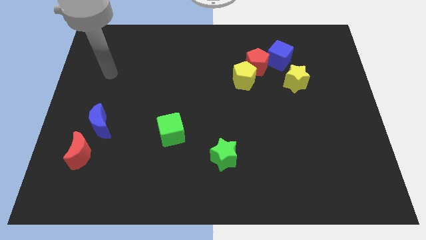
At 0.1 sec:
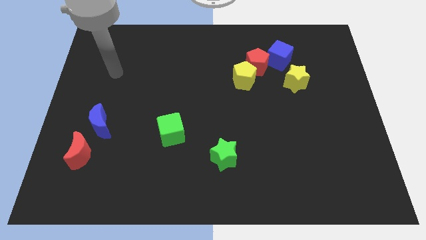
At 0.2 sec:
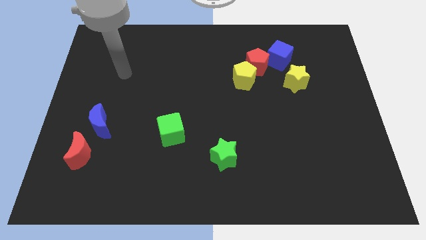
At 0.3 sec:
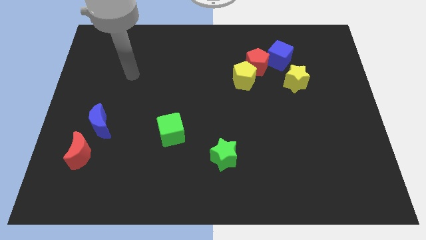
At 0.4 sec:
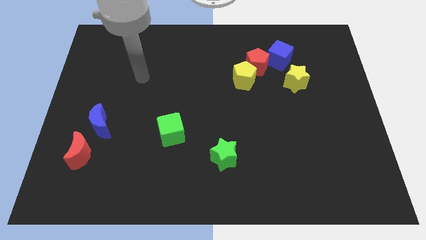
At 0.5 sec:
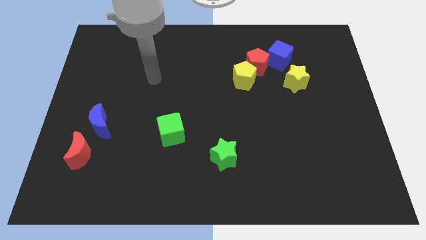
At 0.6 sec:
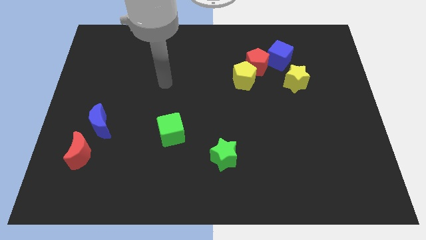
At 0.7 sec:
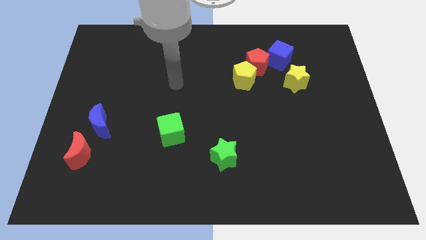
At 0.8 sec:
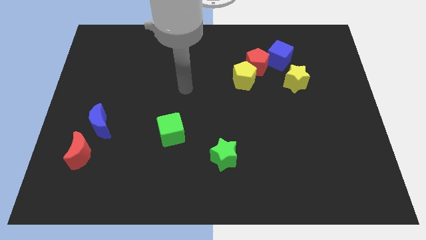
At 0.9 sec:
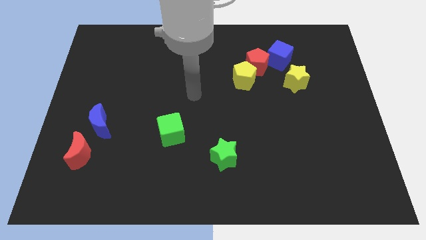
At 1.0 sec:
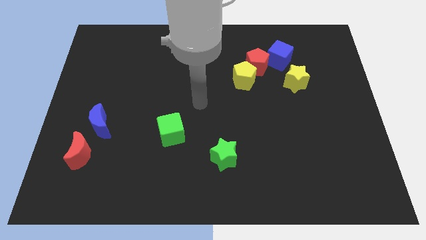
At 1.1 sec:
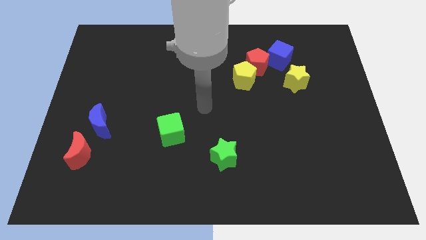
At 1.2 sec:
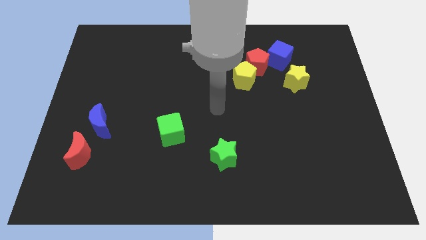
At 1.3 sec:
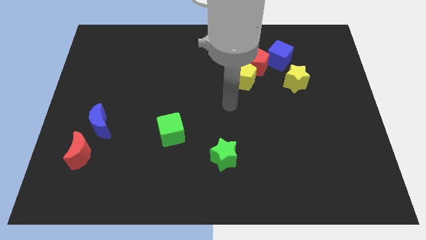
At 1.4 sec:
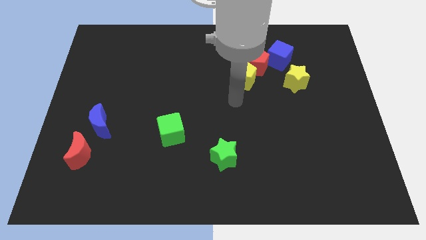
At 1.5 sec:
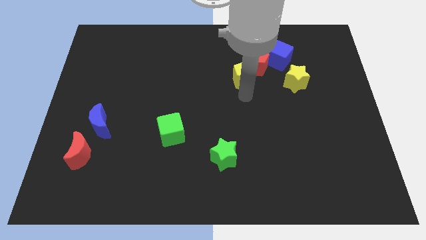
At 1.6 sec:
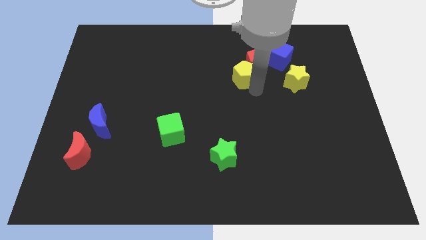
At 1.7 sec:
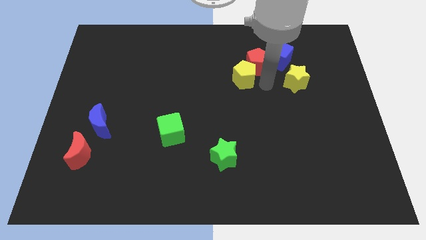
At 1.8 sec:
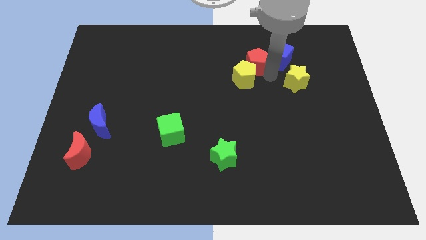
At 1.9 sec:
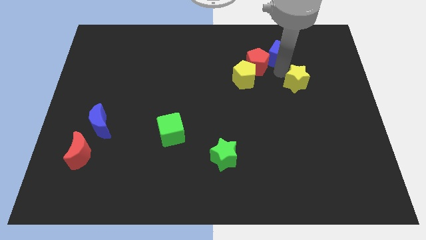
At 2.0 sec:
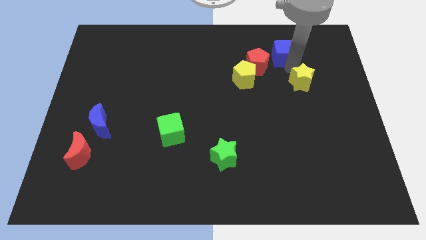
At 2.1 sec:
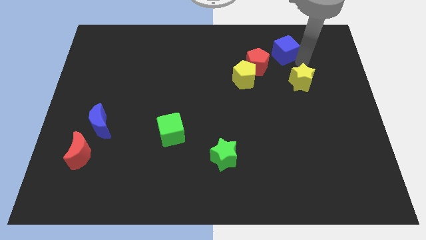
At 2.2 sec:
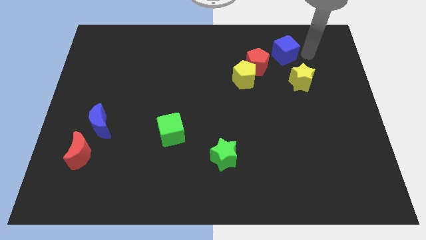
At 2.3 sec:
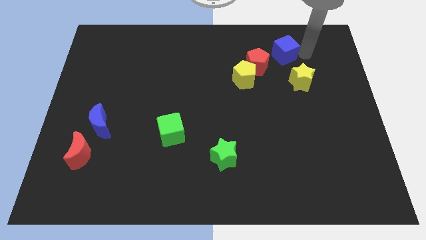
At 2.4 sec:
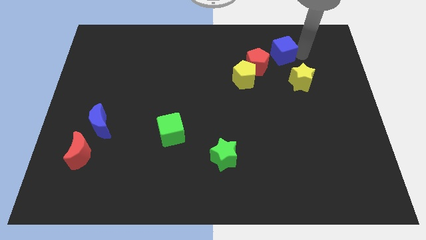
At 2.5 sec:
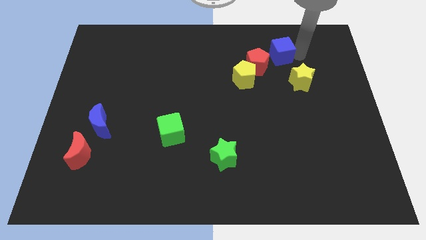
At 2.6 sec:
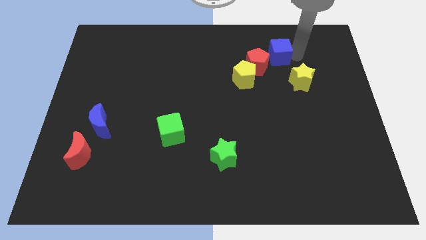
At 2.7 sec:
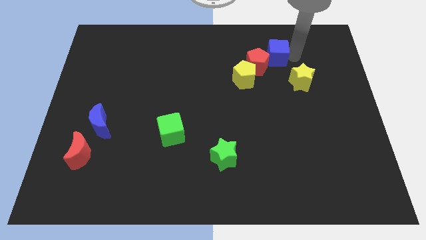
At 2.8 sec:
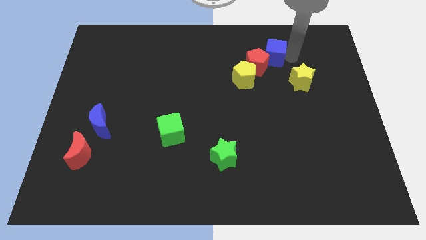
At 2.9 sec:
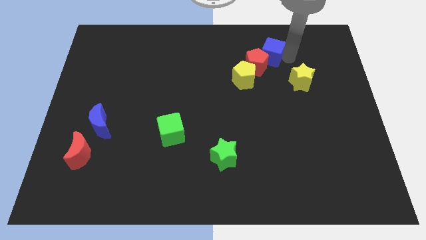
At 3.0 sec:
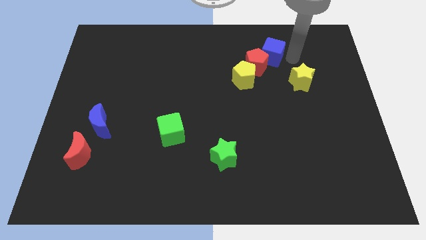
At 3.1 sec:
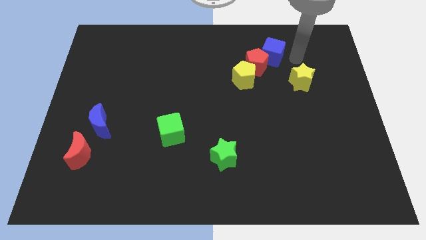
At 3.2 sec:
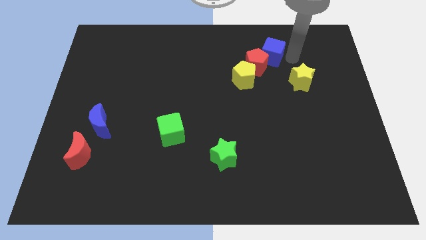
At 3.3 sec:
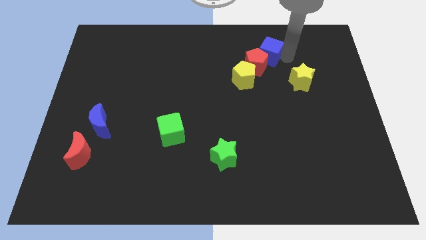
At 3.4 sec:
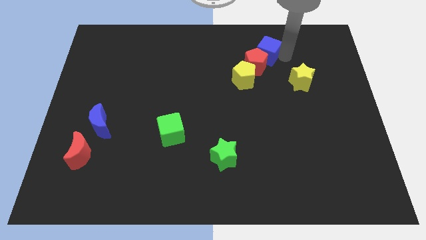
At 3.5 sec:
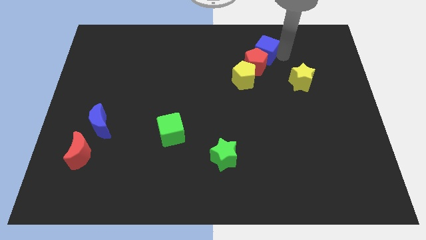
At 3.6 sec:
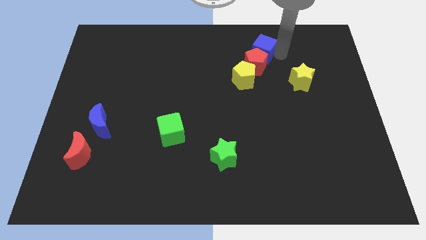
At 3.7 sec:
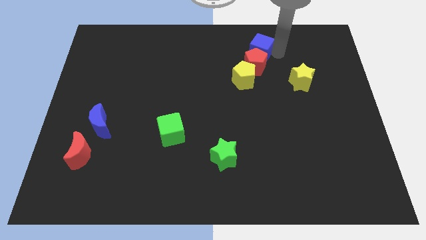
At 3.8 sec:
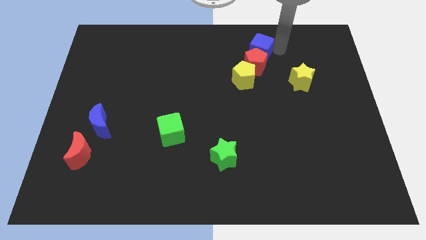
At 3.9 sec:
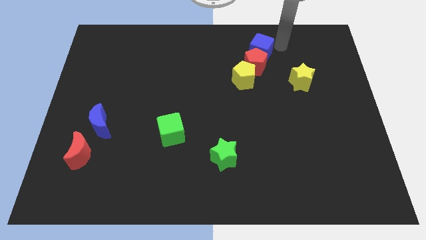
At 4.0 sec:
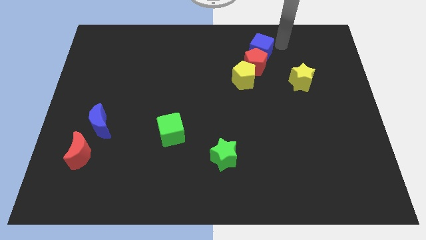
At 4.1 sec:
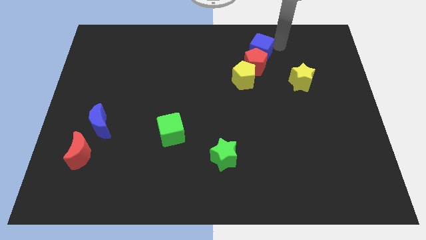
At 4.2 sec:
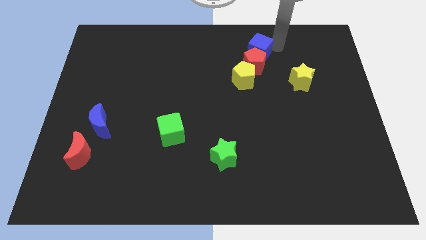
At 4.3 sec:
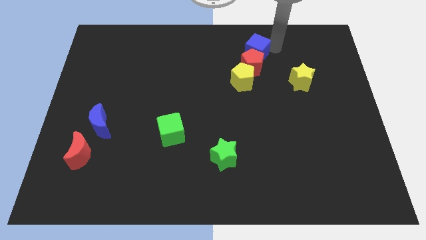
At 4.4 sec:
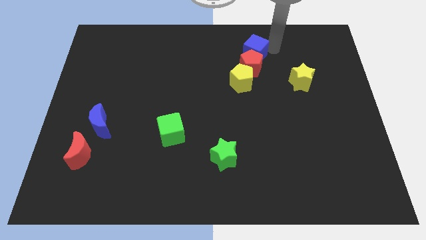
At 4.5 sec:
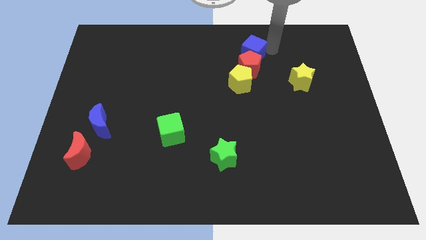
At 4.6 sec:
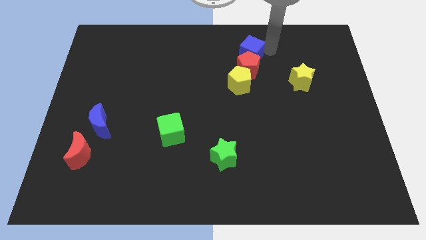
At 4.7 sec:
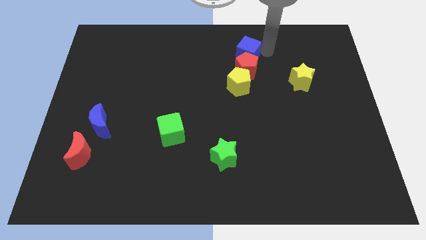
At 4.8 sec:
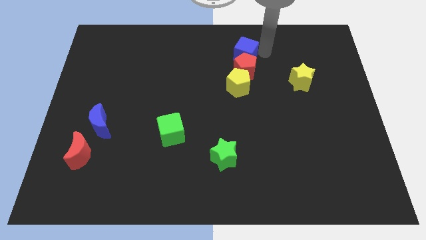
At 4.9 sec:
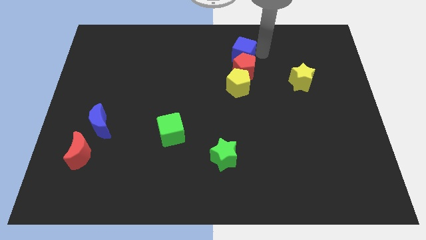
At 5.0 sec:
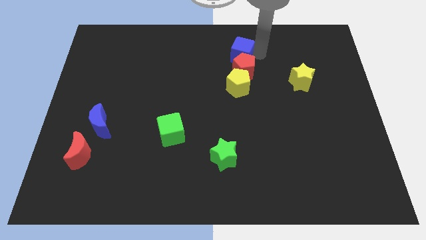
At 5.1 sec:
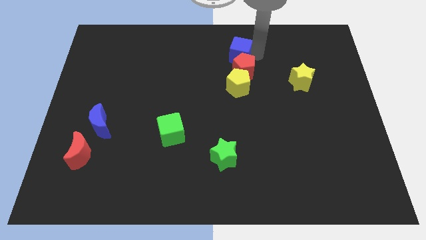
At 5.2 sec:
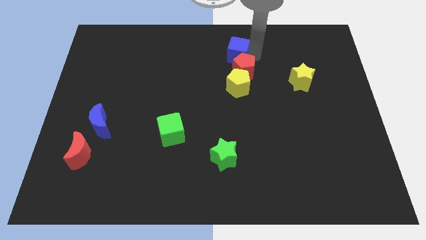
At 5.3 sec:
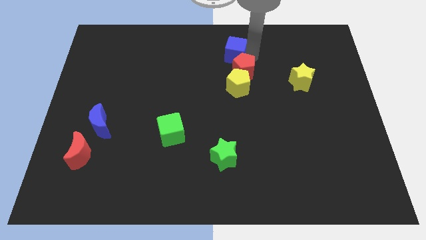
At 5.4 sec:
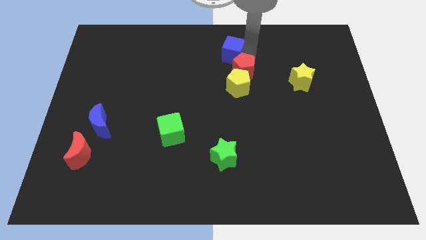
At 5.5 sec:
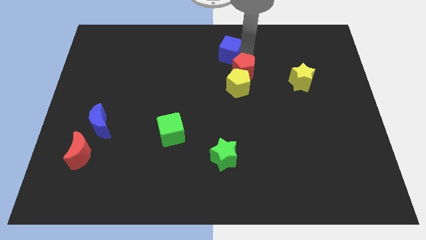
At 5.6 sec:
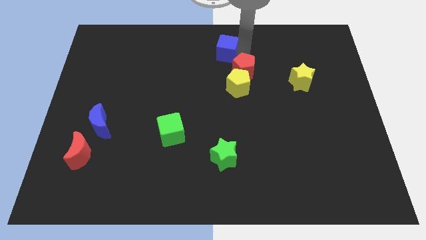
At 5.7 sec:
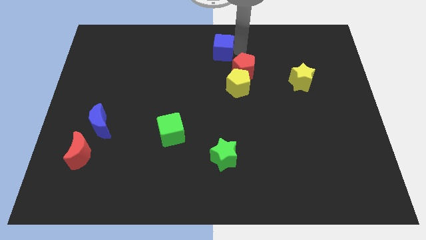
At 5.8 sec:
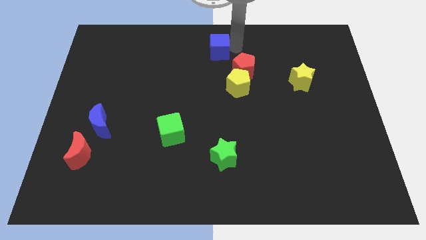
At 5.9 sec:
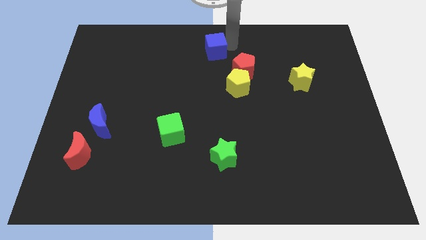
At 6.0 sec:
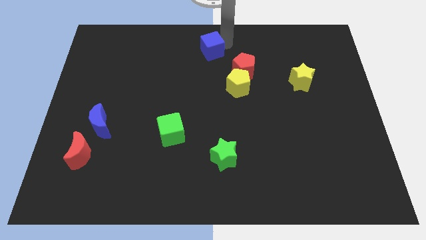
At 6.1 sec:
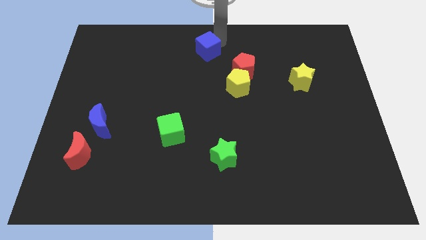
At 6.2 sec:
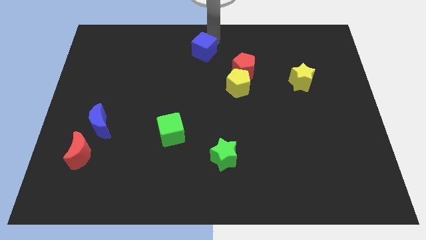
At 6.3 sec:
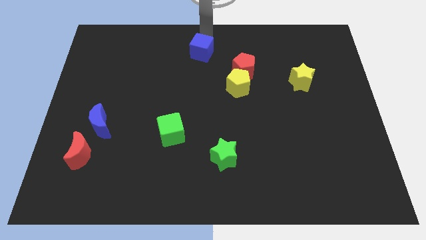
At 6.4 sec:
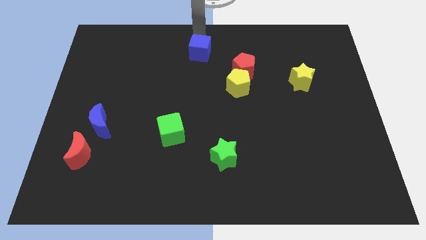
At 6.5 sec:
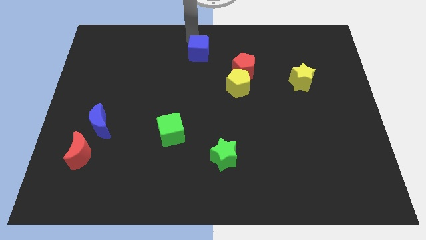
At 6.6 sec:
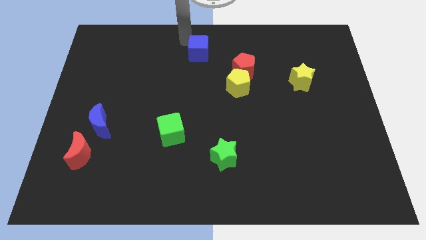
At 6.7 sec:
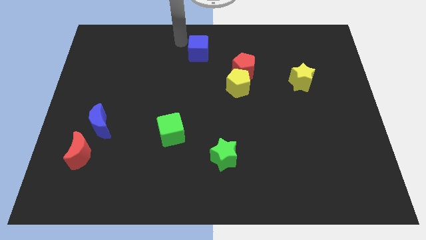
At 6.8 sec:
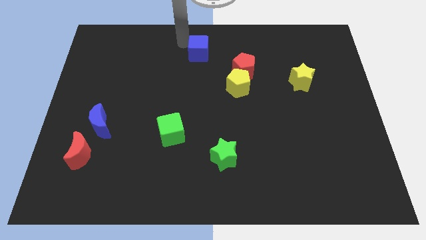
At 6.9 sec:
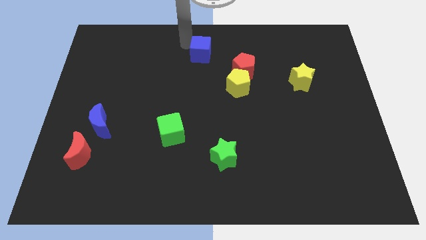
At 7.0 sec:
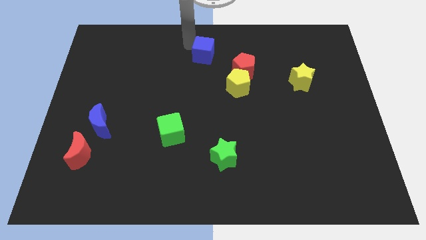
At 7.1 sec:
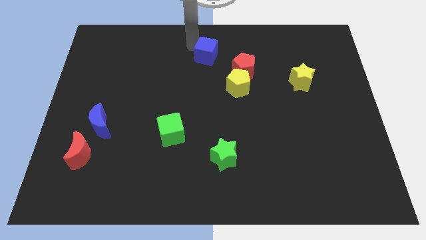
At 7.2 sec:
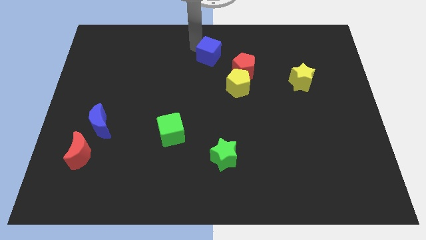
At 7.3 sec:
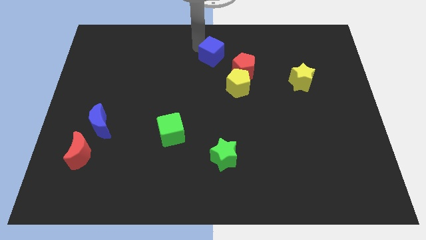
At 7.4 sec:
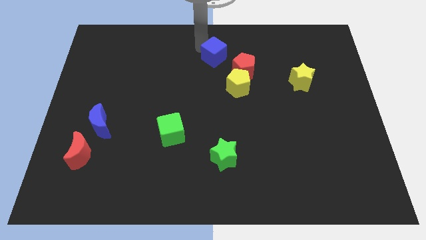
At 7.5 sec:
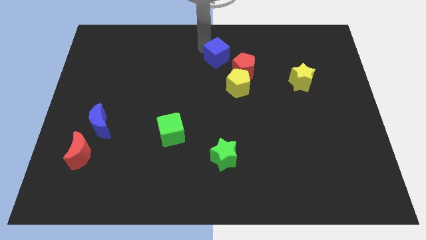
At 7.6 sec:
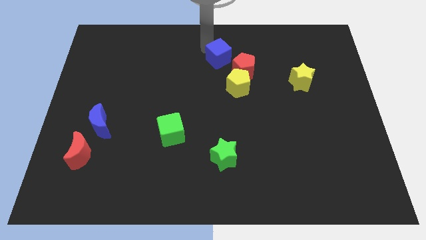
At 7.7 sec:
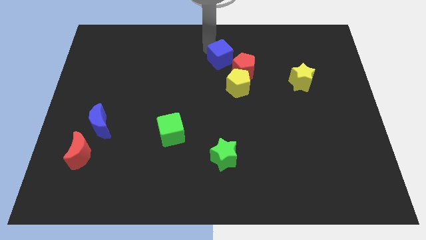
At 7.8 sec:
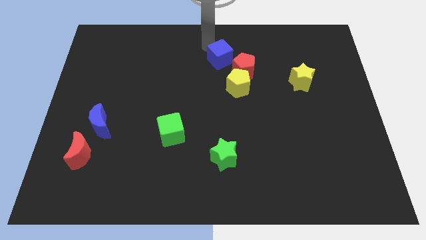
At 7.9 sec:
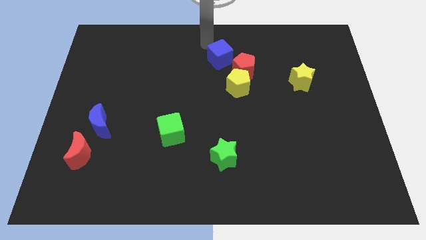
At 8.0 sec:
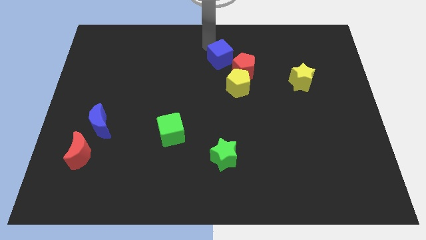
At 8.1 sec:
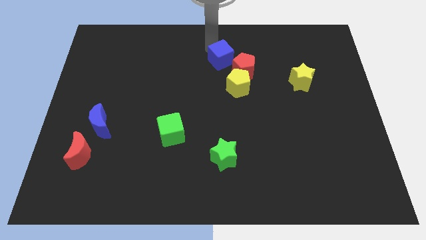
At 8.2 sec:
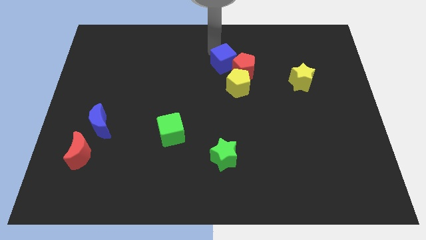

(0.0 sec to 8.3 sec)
move the blue cube slightly down and left diagonally
